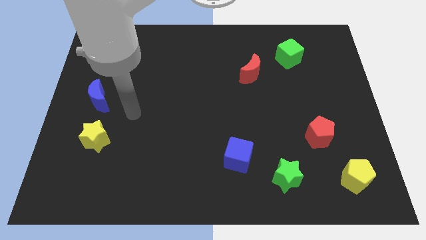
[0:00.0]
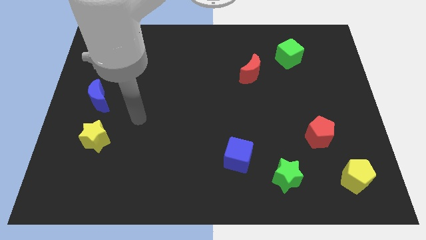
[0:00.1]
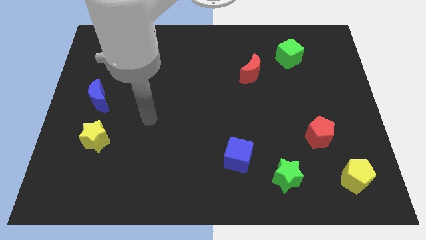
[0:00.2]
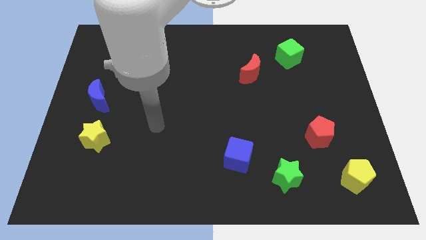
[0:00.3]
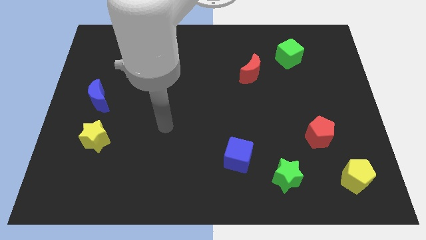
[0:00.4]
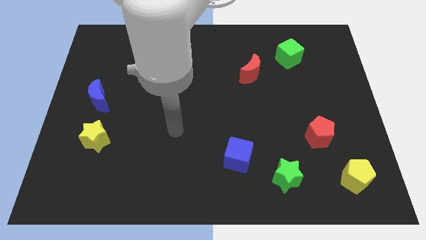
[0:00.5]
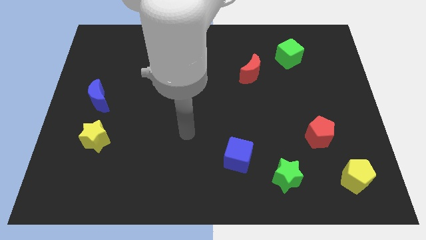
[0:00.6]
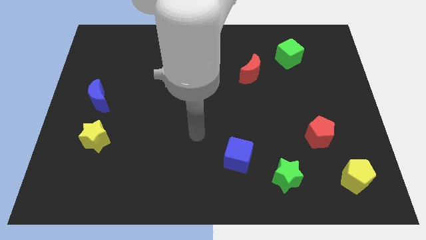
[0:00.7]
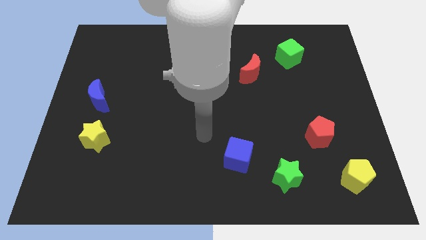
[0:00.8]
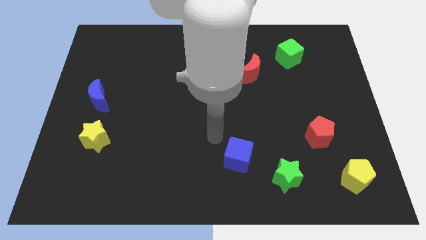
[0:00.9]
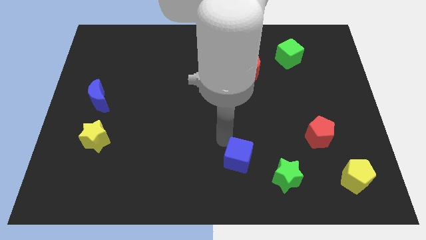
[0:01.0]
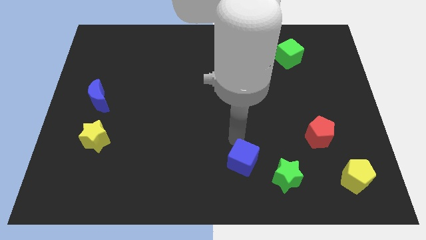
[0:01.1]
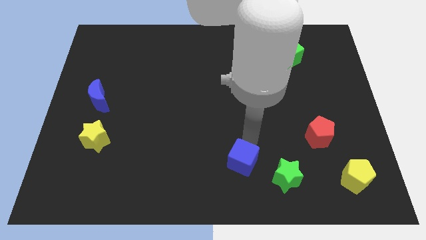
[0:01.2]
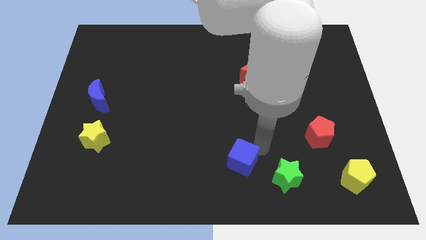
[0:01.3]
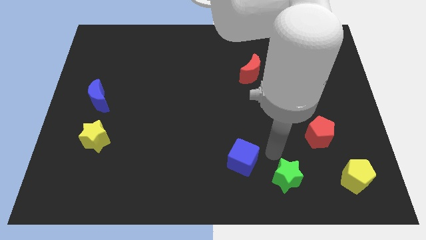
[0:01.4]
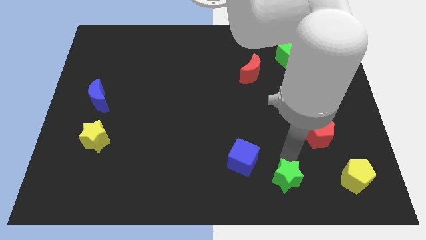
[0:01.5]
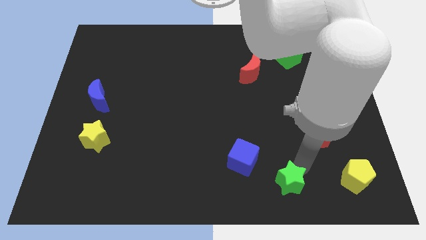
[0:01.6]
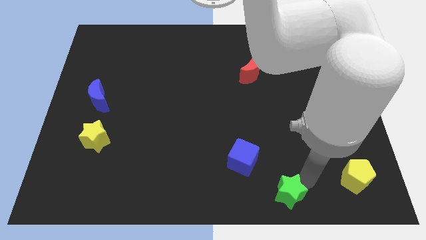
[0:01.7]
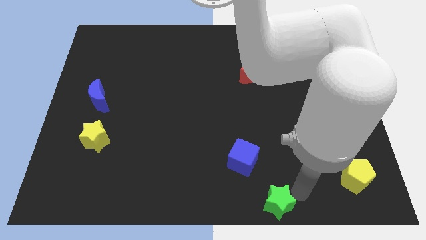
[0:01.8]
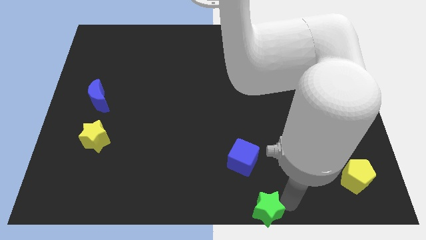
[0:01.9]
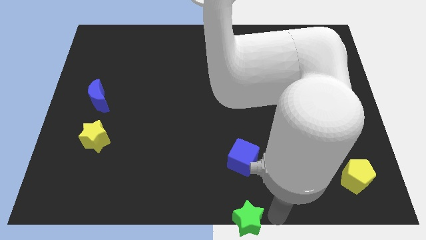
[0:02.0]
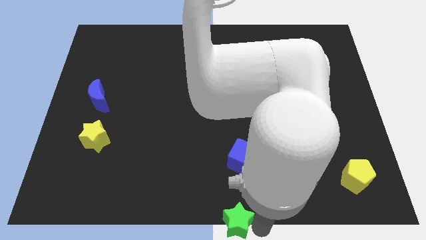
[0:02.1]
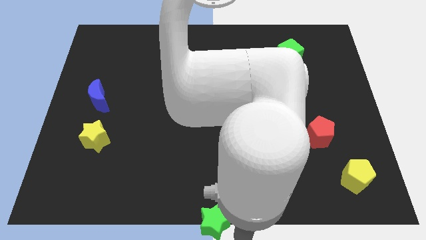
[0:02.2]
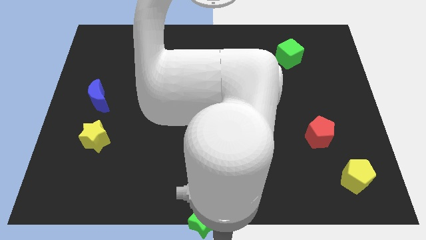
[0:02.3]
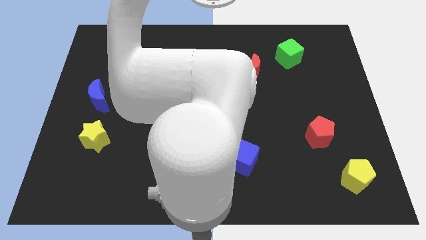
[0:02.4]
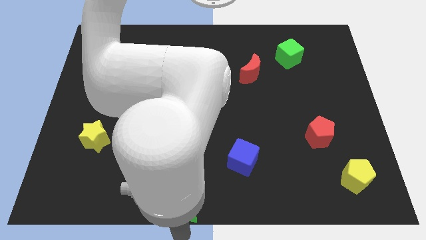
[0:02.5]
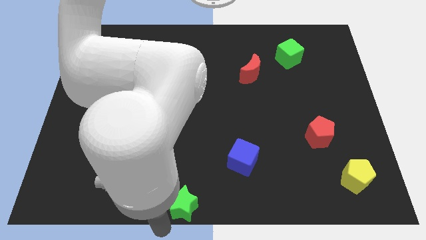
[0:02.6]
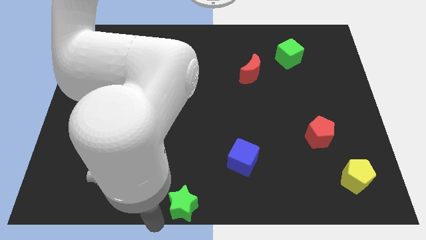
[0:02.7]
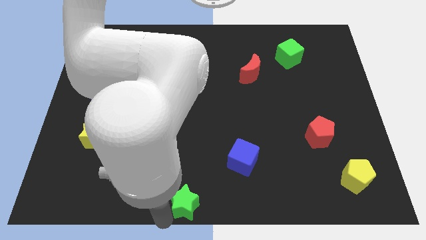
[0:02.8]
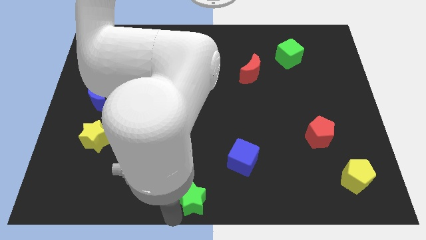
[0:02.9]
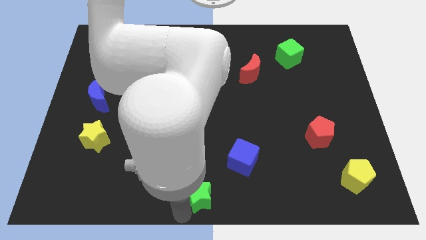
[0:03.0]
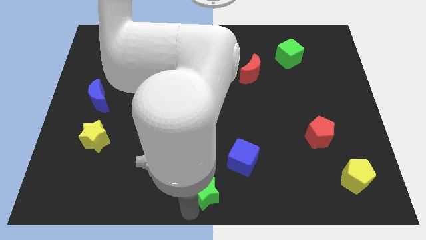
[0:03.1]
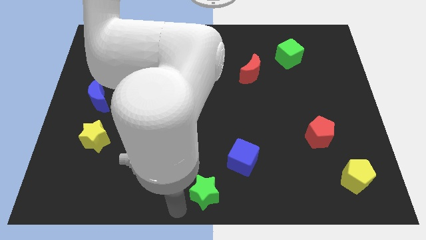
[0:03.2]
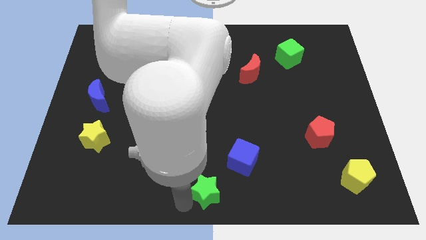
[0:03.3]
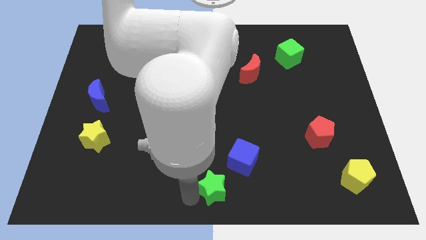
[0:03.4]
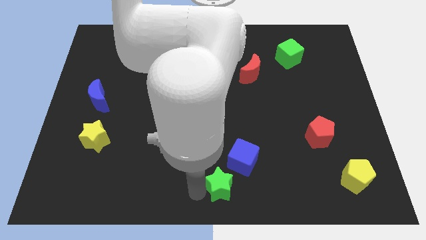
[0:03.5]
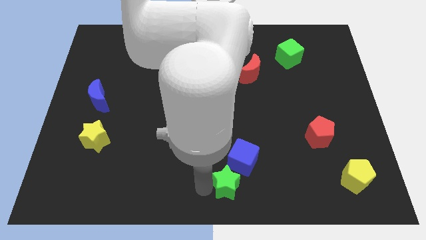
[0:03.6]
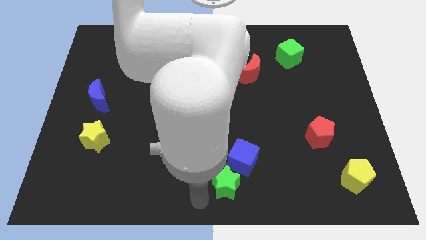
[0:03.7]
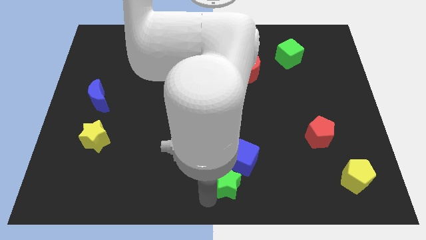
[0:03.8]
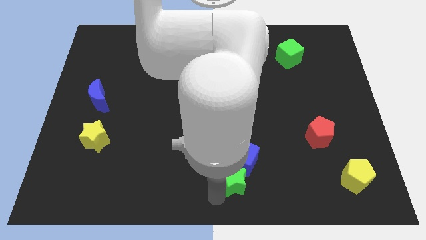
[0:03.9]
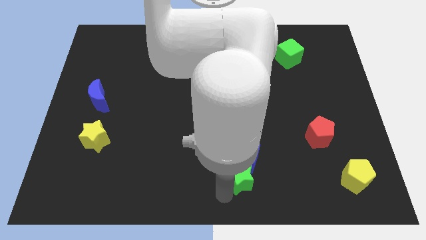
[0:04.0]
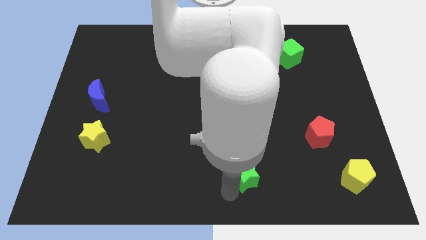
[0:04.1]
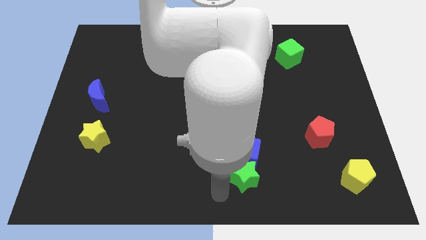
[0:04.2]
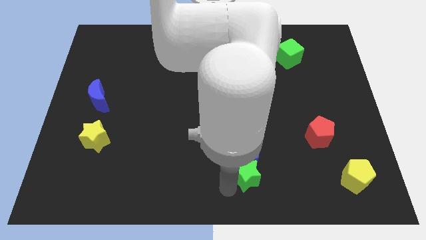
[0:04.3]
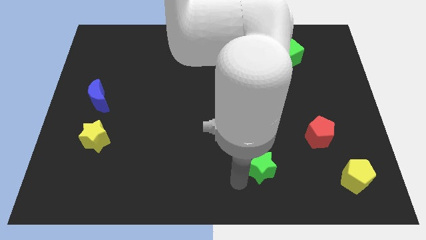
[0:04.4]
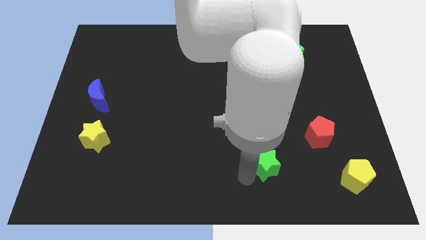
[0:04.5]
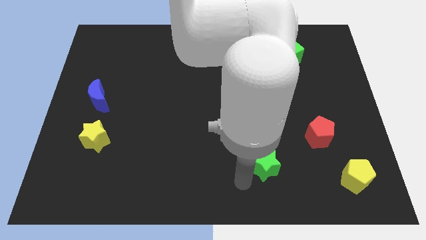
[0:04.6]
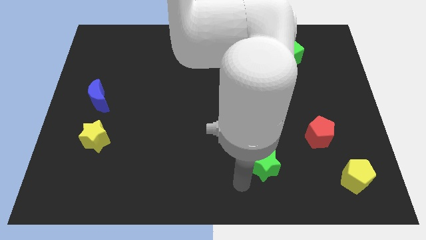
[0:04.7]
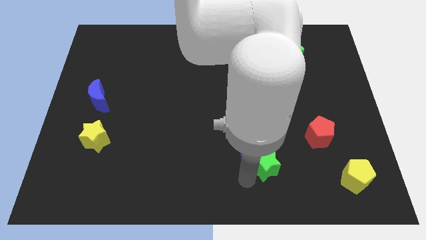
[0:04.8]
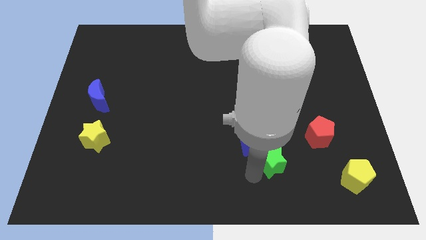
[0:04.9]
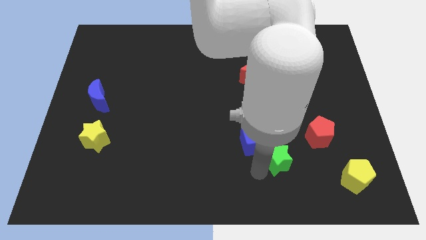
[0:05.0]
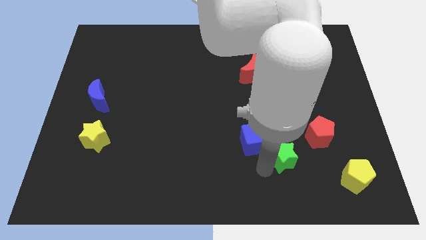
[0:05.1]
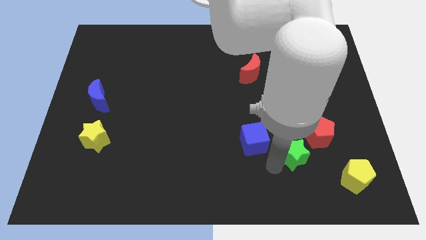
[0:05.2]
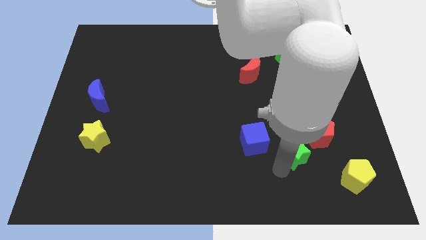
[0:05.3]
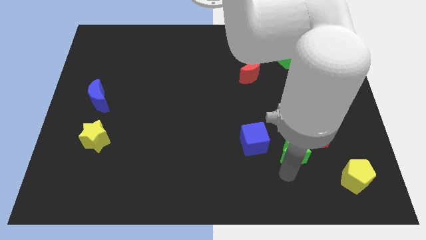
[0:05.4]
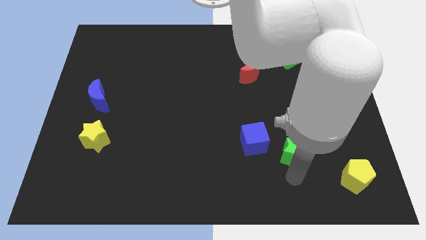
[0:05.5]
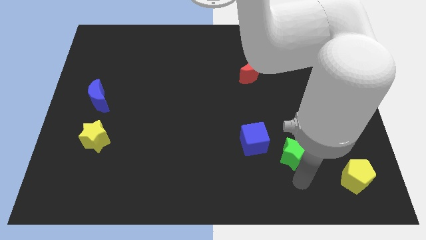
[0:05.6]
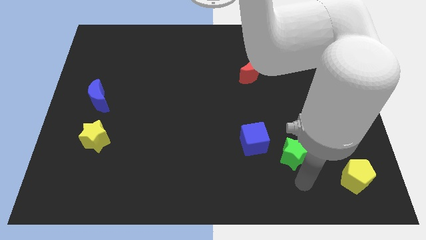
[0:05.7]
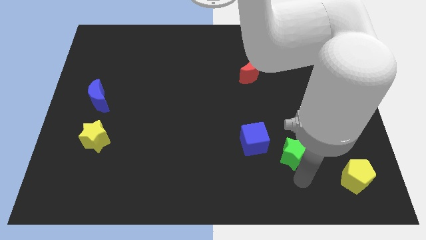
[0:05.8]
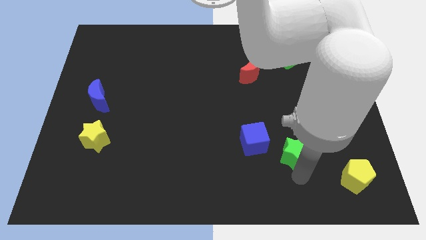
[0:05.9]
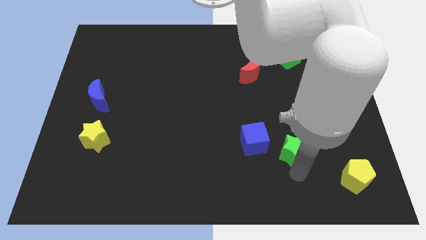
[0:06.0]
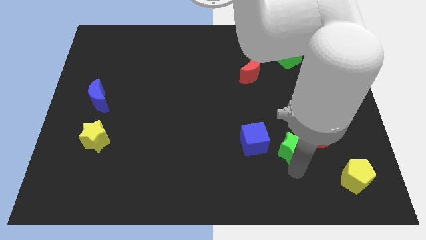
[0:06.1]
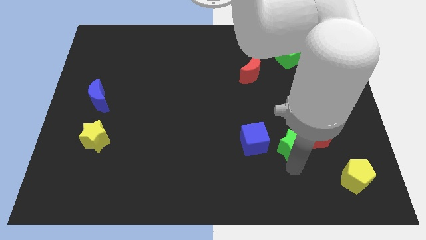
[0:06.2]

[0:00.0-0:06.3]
slightly move the green star up

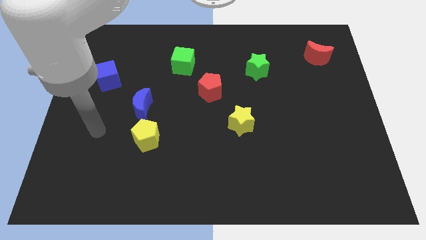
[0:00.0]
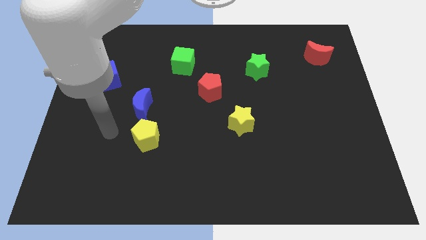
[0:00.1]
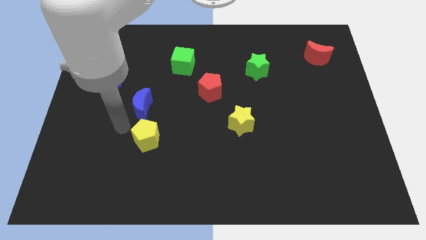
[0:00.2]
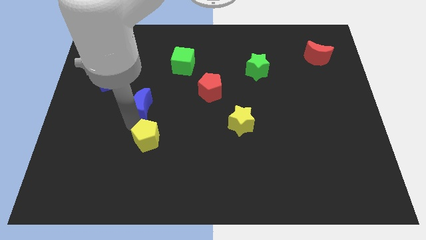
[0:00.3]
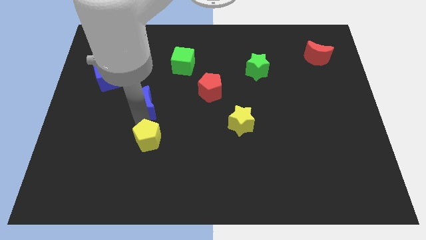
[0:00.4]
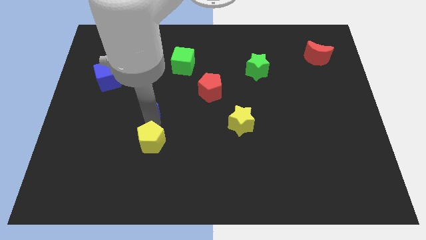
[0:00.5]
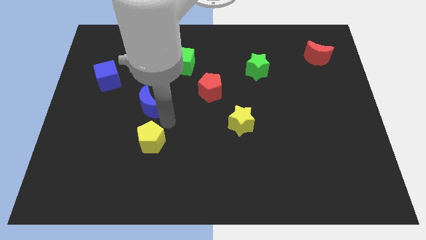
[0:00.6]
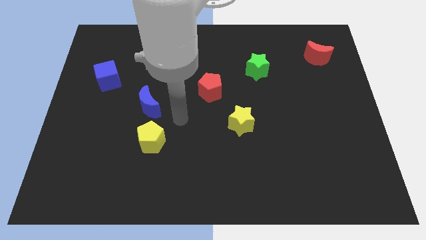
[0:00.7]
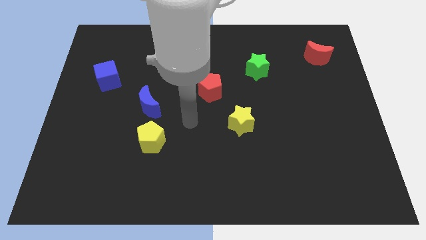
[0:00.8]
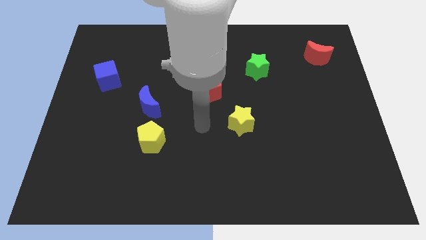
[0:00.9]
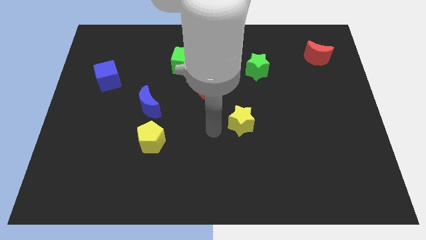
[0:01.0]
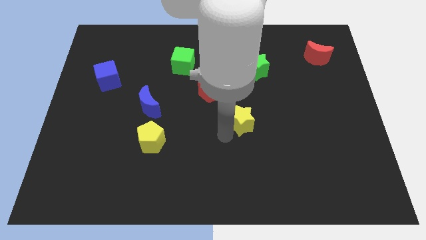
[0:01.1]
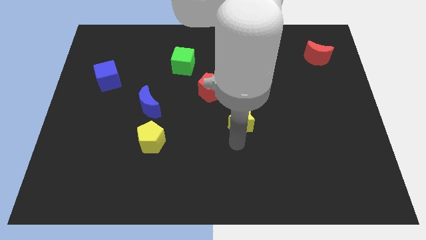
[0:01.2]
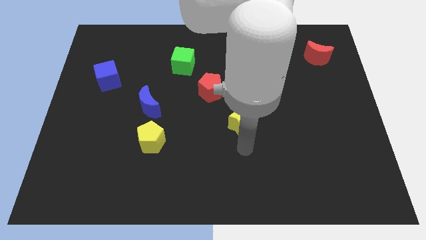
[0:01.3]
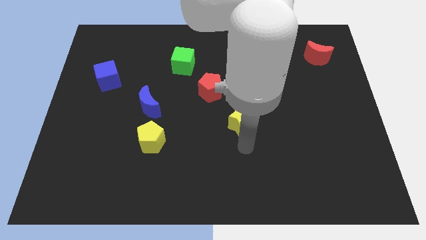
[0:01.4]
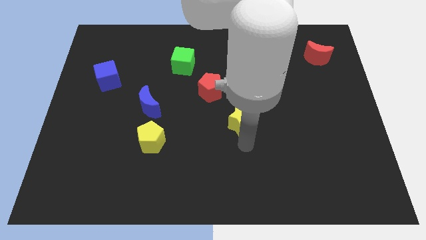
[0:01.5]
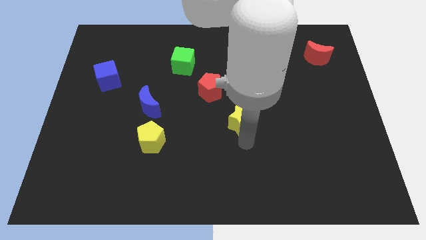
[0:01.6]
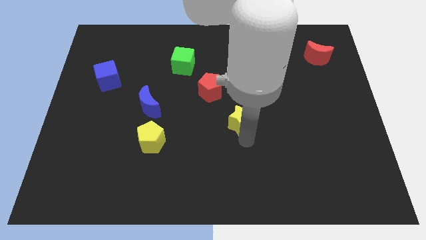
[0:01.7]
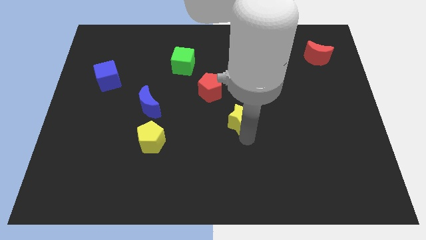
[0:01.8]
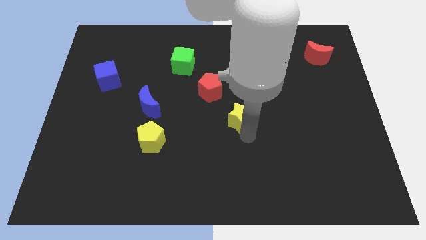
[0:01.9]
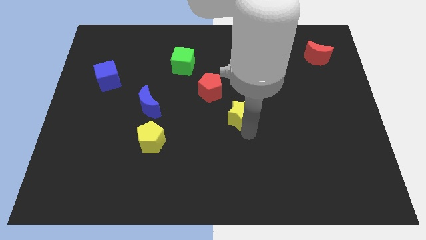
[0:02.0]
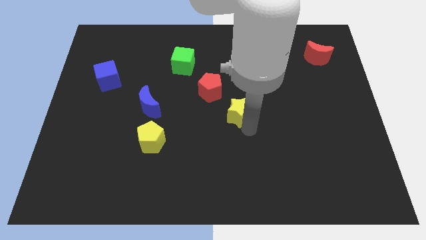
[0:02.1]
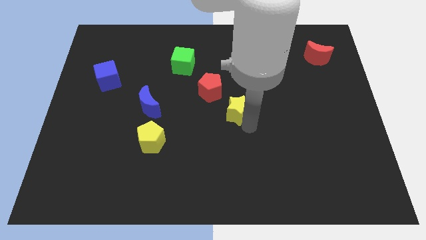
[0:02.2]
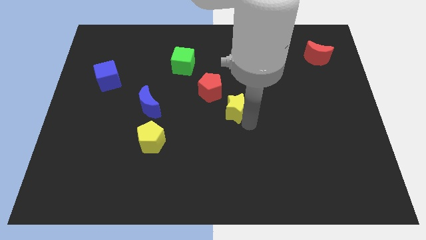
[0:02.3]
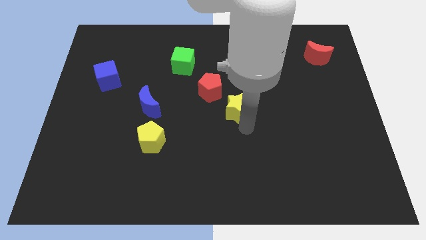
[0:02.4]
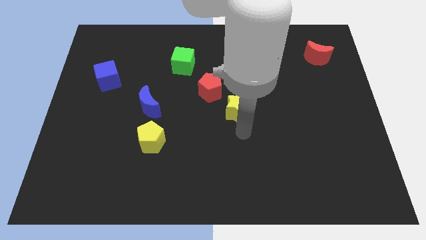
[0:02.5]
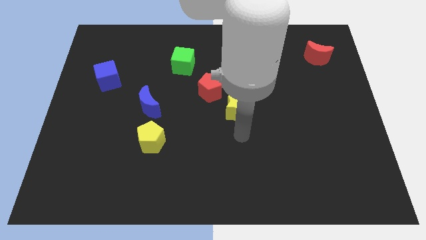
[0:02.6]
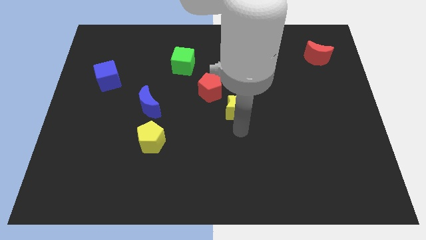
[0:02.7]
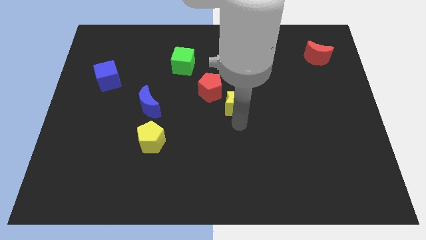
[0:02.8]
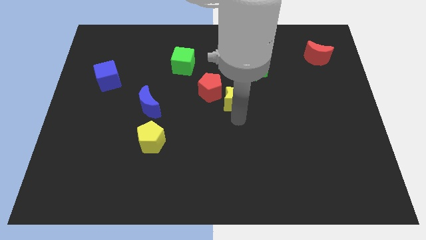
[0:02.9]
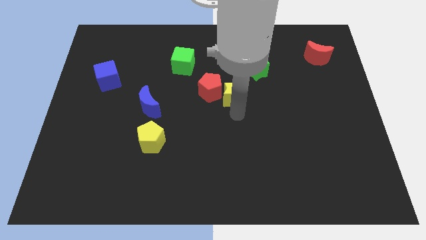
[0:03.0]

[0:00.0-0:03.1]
slide the yellow star up a little bit
